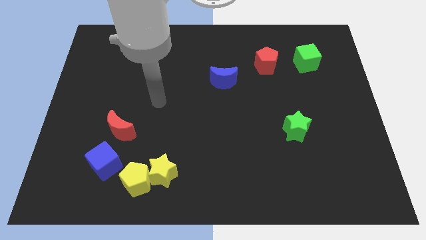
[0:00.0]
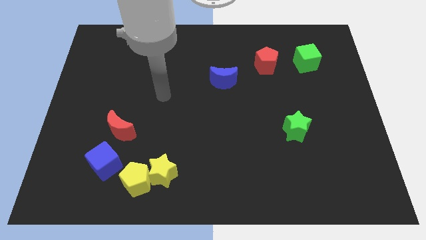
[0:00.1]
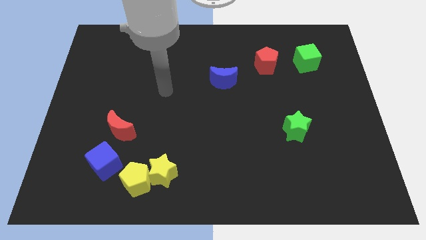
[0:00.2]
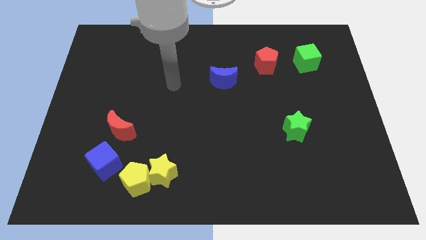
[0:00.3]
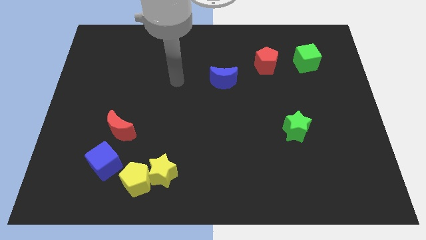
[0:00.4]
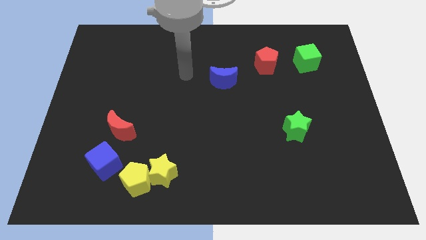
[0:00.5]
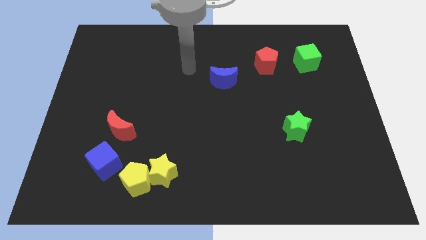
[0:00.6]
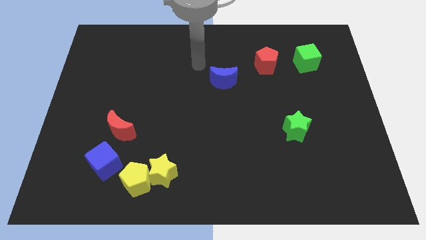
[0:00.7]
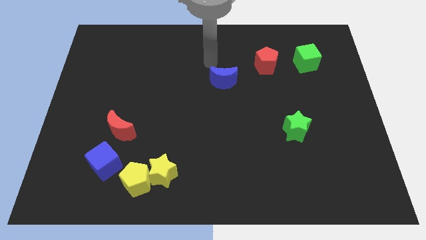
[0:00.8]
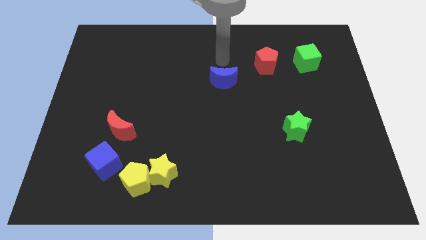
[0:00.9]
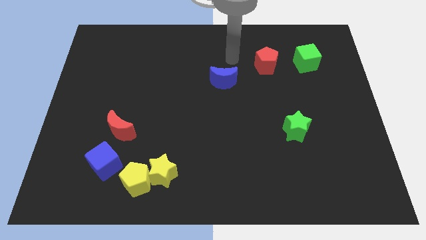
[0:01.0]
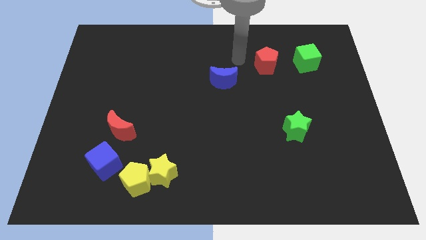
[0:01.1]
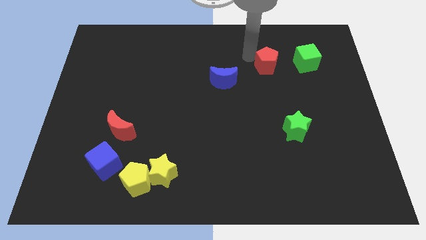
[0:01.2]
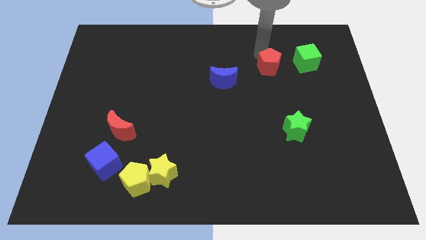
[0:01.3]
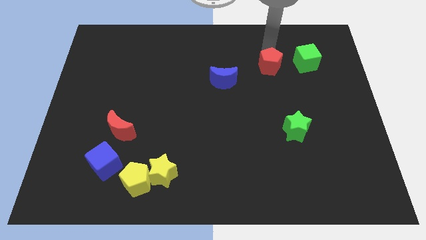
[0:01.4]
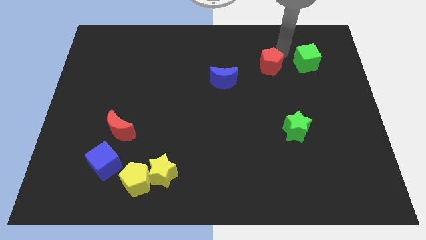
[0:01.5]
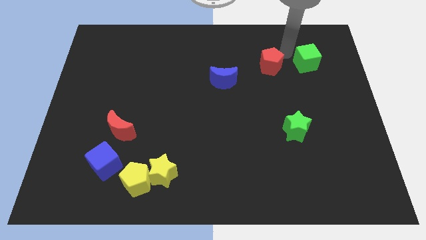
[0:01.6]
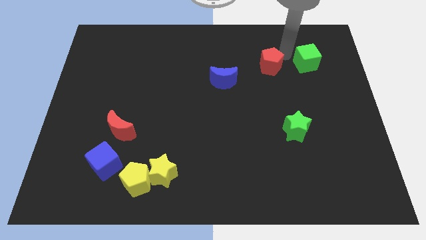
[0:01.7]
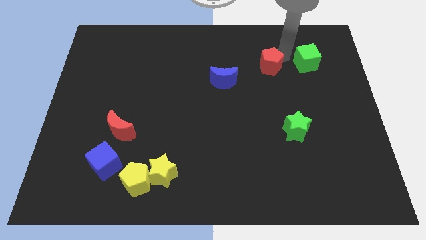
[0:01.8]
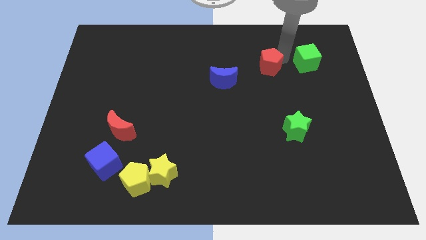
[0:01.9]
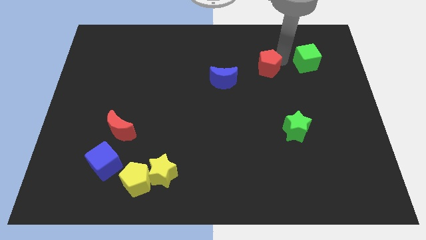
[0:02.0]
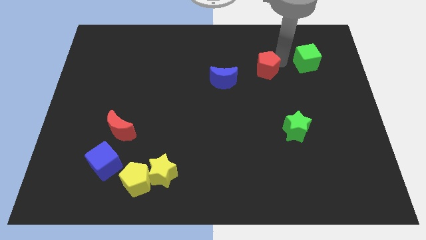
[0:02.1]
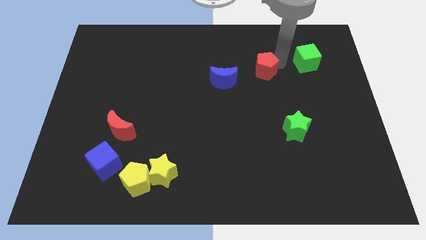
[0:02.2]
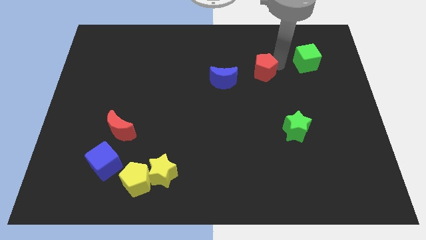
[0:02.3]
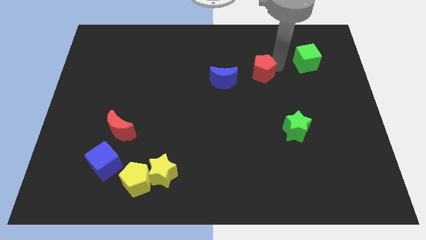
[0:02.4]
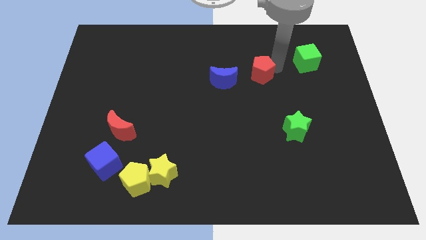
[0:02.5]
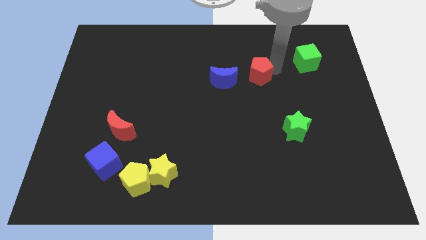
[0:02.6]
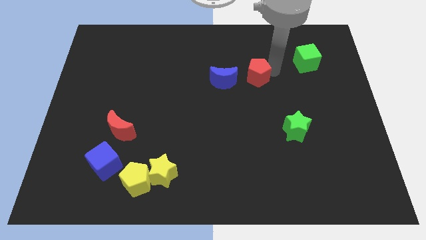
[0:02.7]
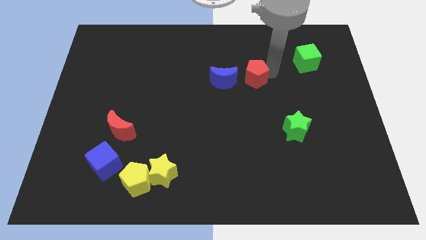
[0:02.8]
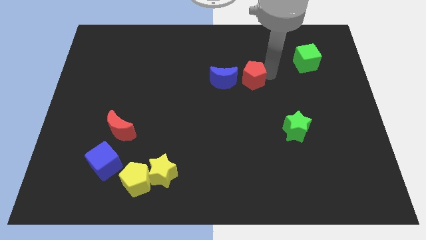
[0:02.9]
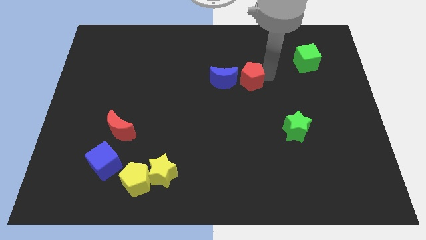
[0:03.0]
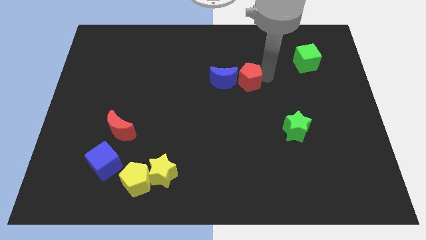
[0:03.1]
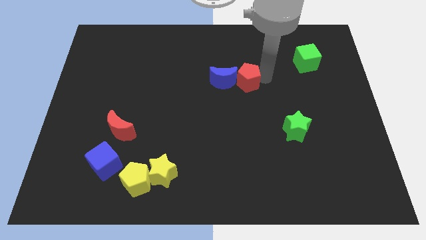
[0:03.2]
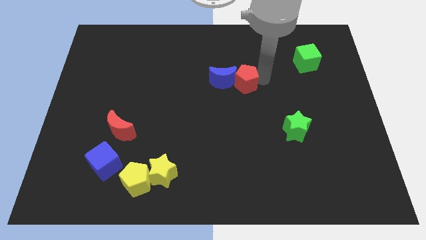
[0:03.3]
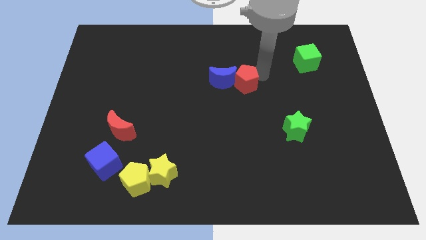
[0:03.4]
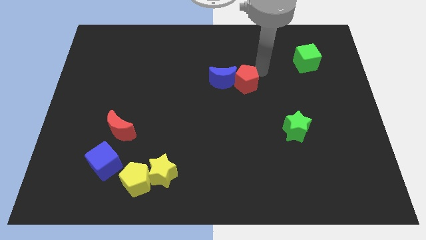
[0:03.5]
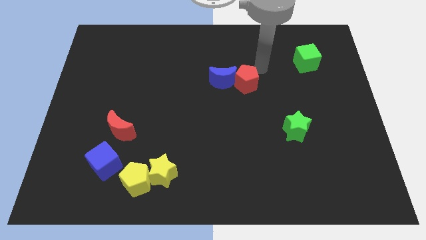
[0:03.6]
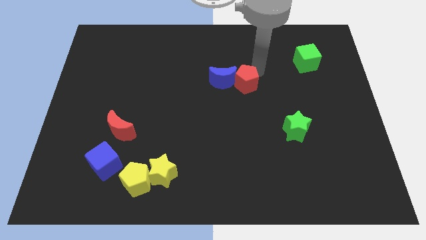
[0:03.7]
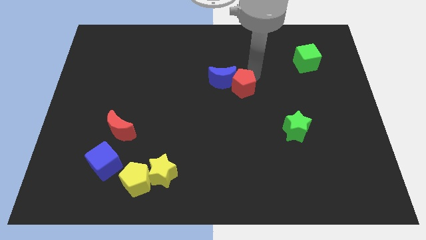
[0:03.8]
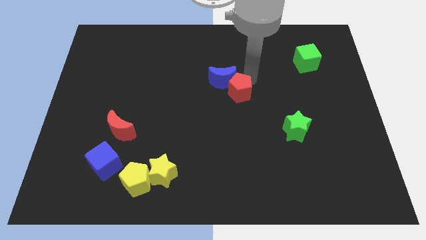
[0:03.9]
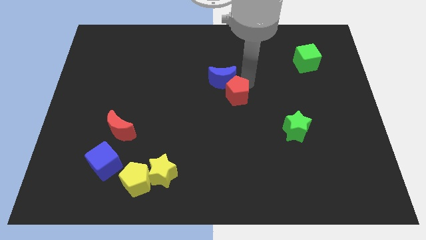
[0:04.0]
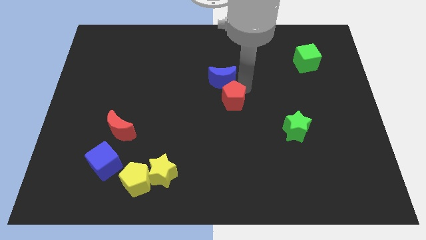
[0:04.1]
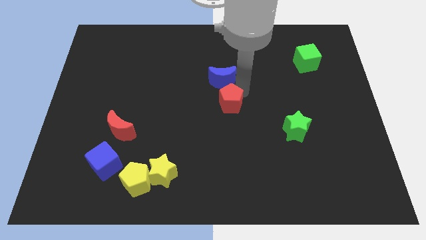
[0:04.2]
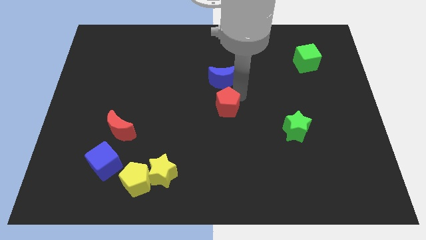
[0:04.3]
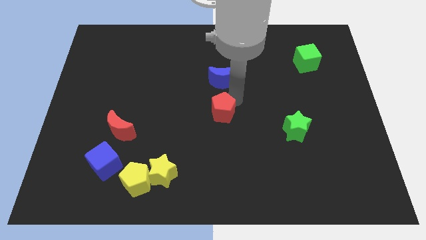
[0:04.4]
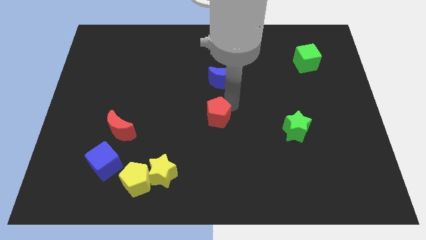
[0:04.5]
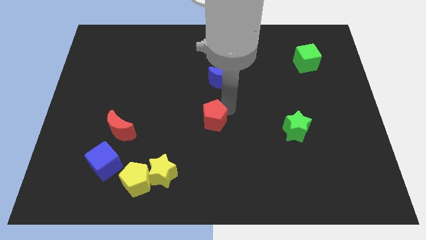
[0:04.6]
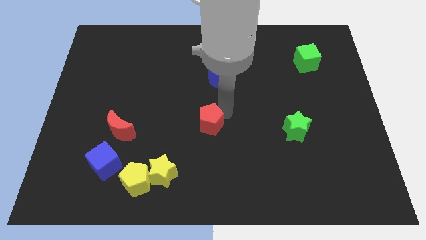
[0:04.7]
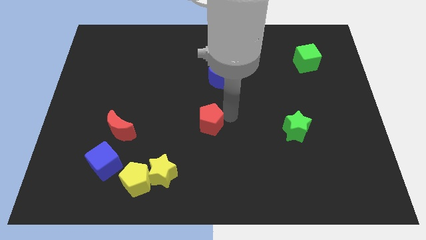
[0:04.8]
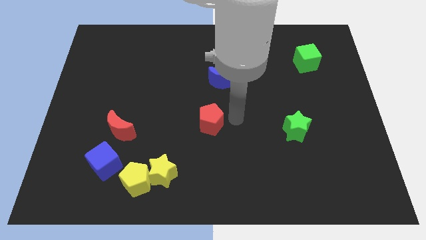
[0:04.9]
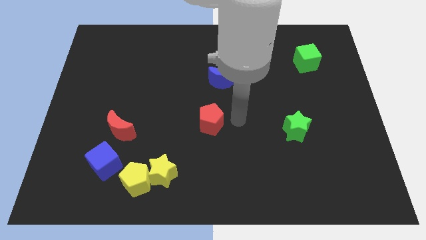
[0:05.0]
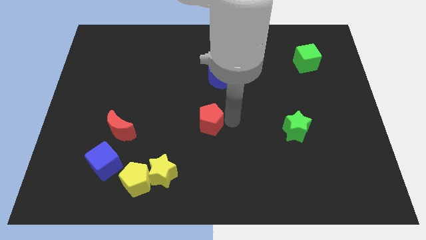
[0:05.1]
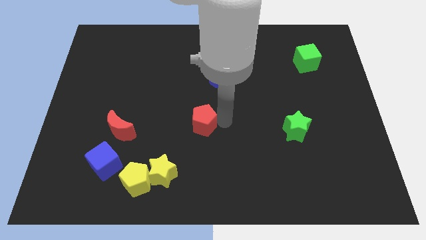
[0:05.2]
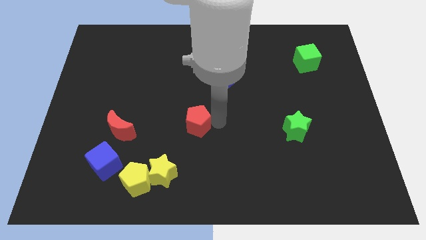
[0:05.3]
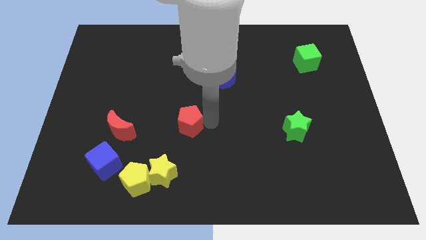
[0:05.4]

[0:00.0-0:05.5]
slide the red pentagon to the top side of the yellow star

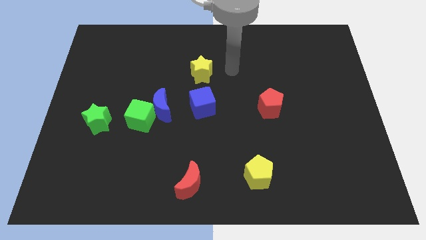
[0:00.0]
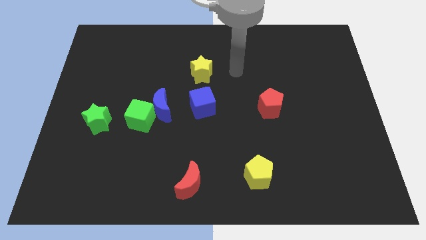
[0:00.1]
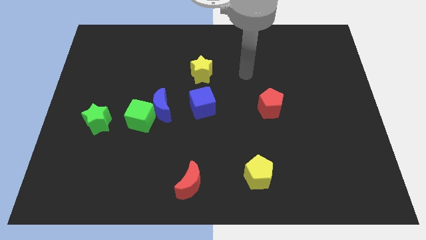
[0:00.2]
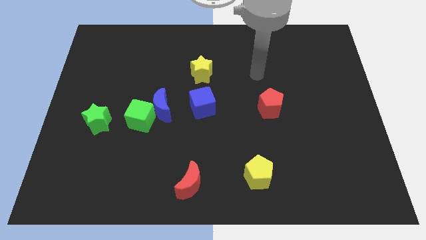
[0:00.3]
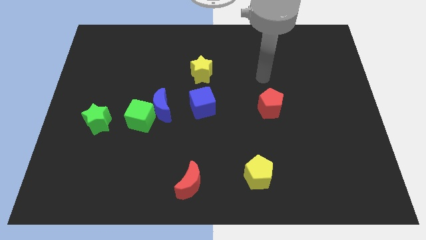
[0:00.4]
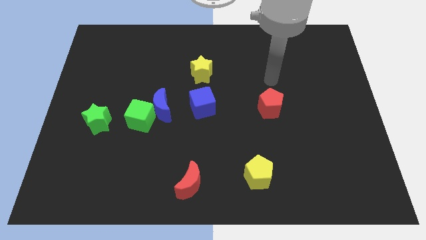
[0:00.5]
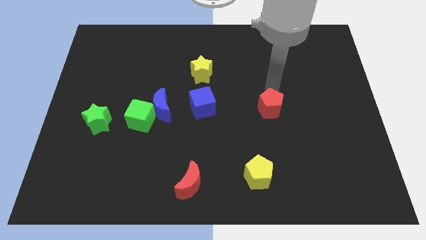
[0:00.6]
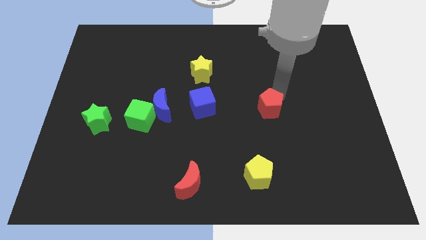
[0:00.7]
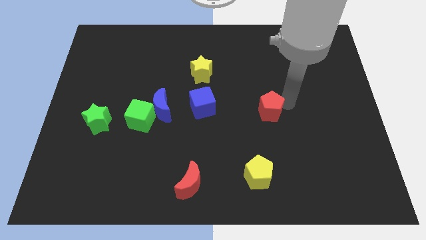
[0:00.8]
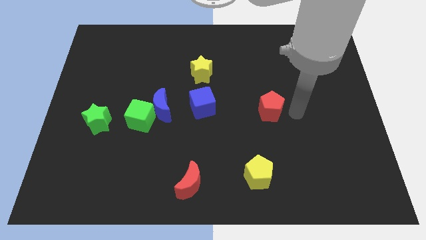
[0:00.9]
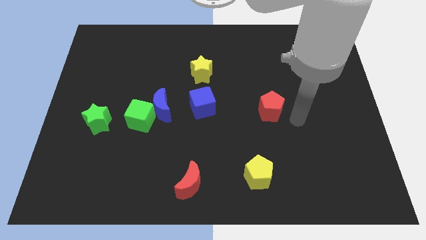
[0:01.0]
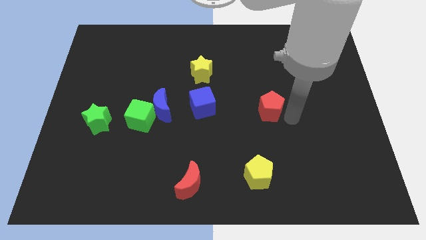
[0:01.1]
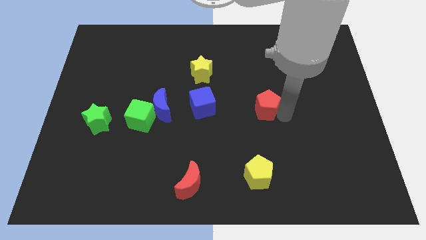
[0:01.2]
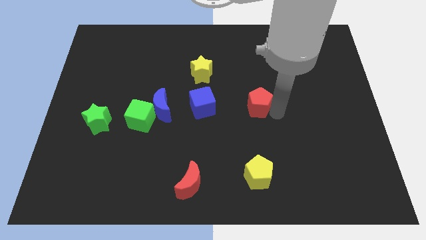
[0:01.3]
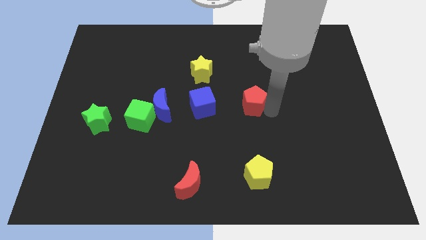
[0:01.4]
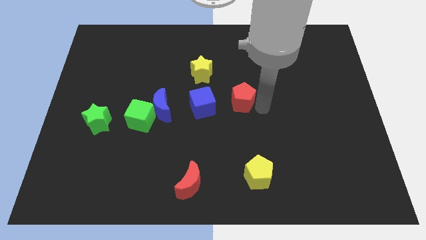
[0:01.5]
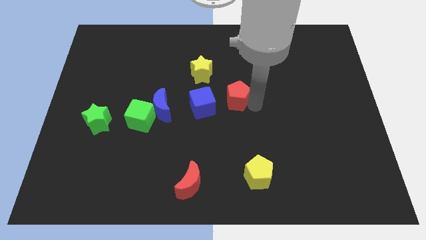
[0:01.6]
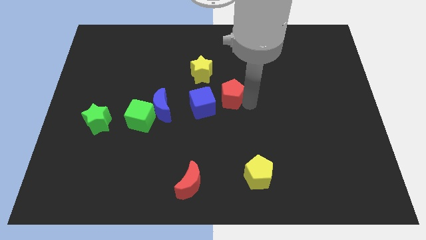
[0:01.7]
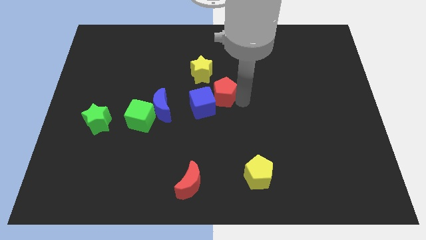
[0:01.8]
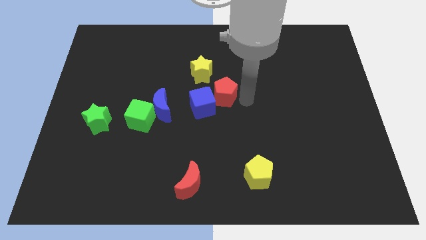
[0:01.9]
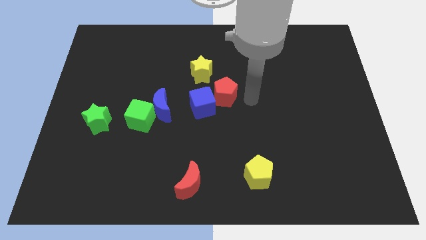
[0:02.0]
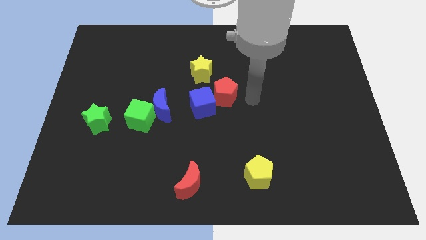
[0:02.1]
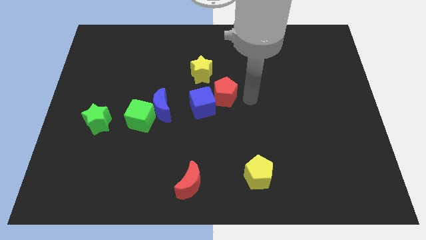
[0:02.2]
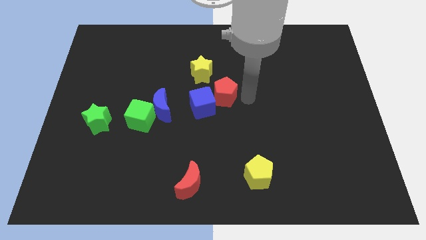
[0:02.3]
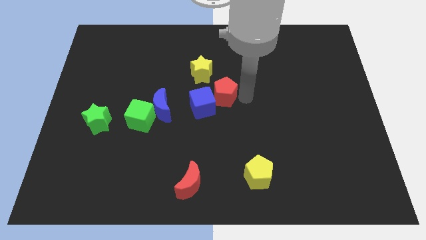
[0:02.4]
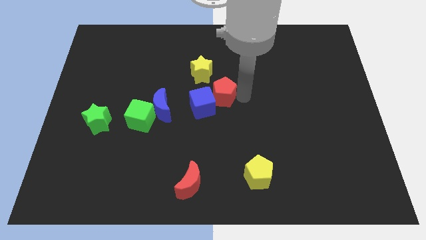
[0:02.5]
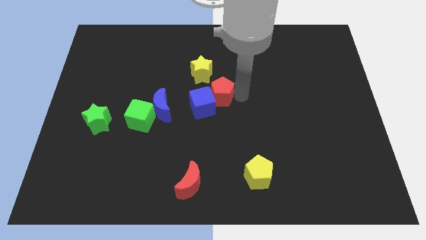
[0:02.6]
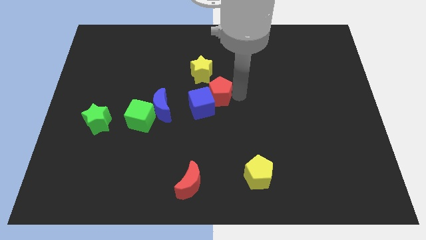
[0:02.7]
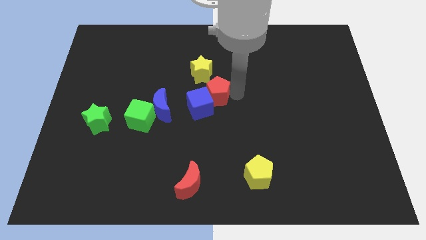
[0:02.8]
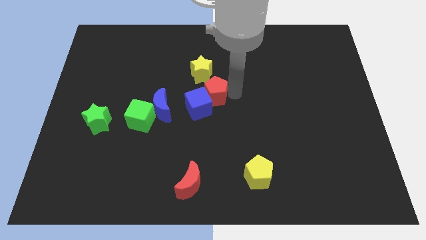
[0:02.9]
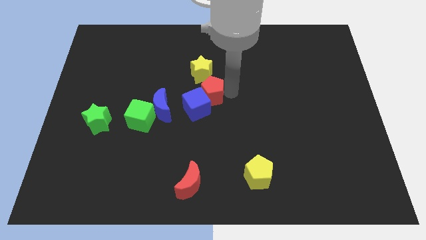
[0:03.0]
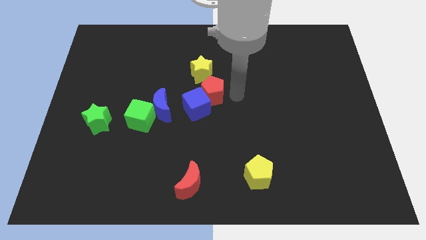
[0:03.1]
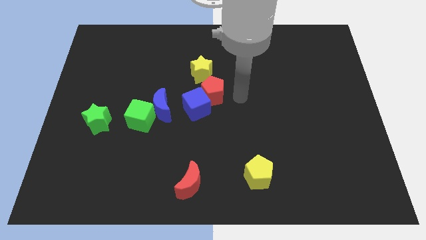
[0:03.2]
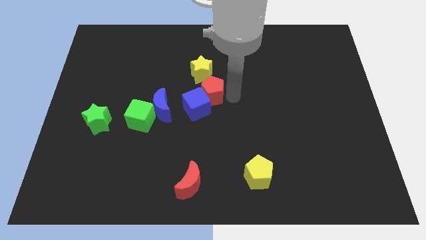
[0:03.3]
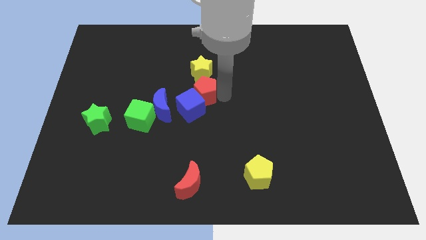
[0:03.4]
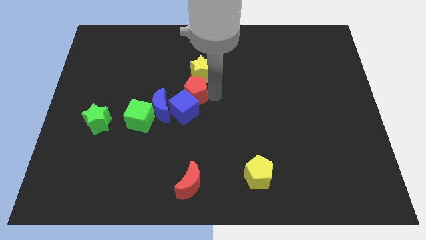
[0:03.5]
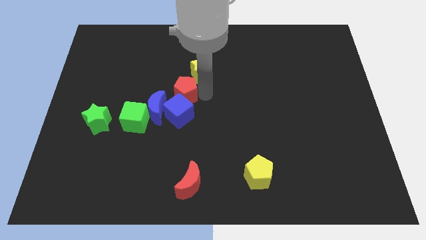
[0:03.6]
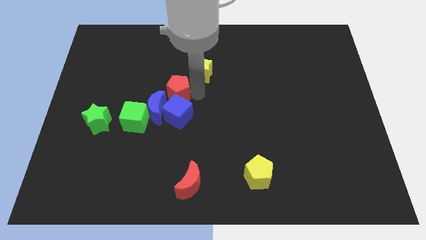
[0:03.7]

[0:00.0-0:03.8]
slide the red pentagon diagonally up and to the left of the blue cube
